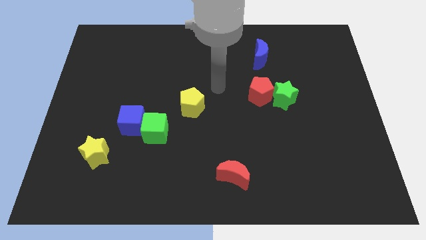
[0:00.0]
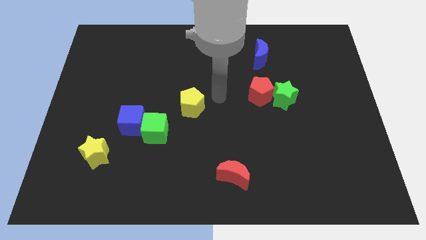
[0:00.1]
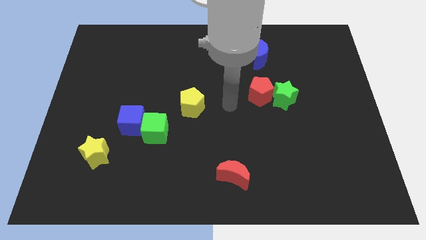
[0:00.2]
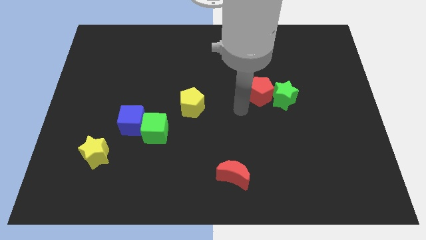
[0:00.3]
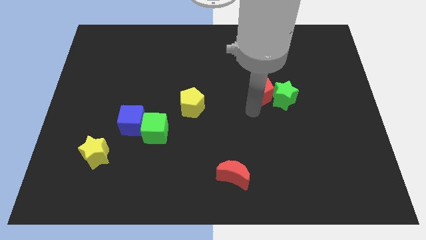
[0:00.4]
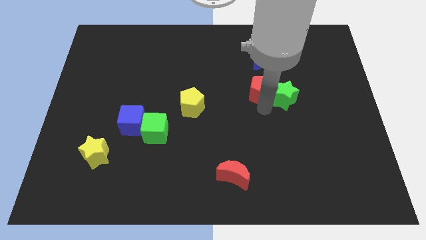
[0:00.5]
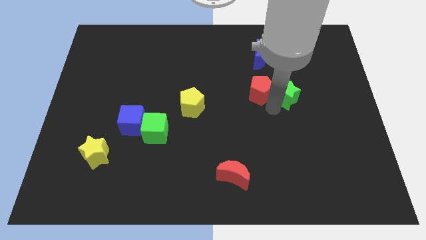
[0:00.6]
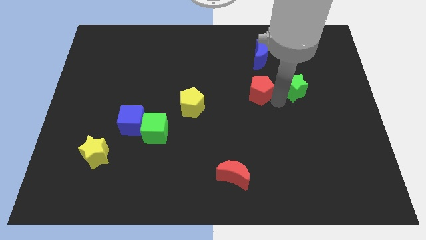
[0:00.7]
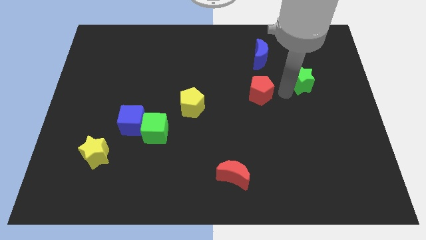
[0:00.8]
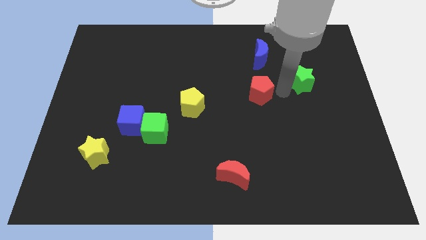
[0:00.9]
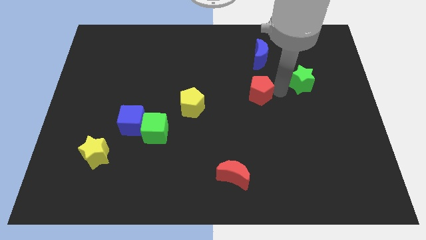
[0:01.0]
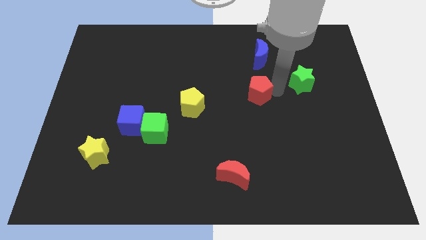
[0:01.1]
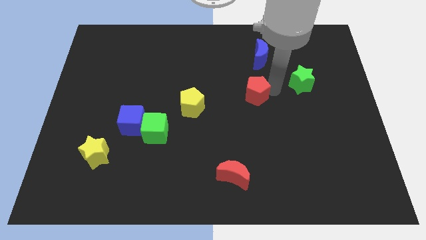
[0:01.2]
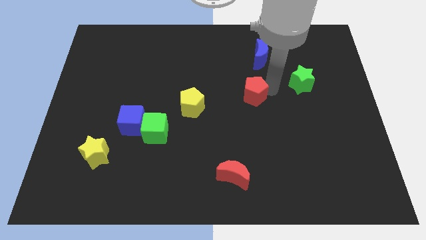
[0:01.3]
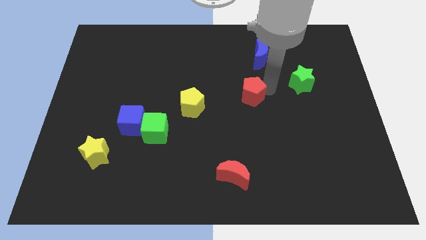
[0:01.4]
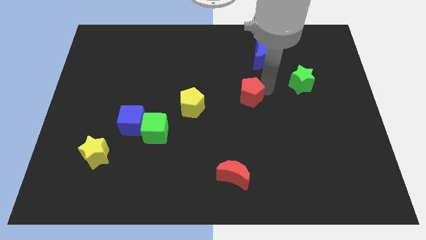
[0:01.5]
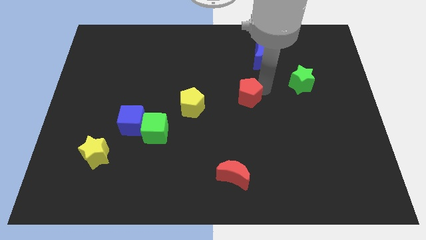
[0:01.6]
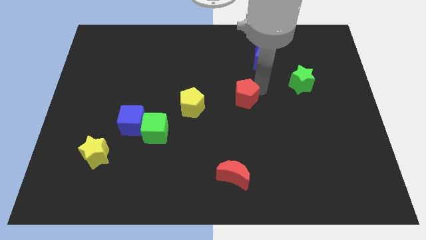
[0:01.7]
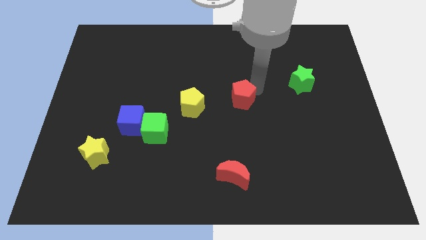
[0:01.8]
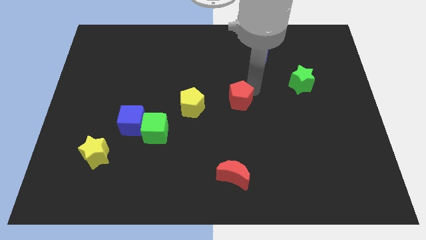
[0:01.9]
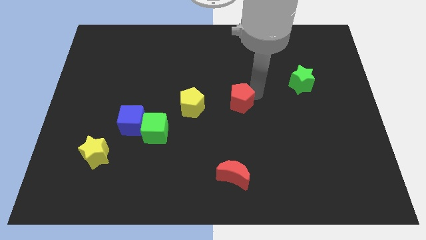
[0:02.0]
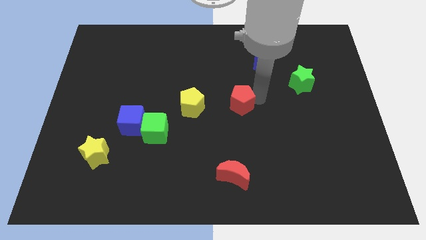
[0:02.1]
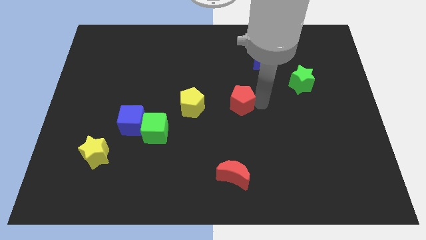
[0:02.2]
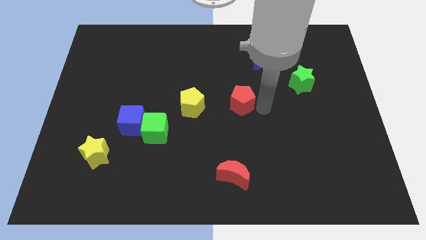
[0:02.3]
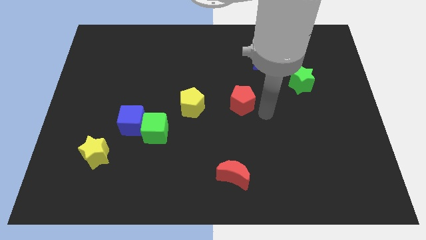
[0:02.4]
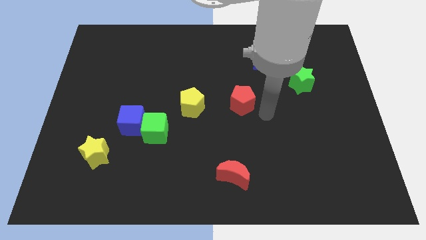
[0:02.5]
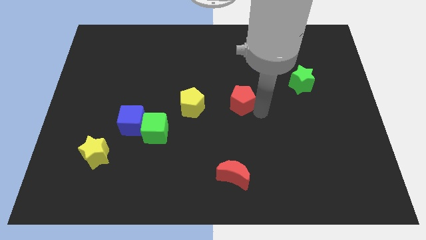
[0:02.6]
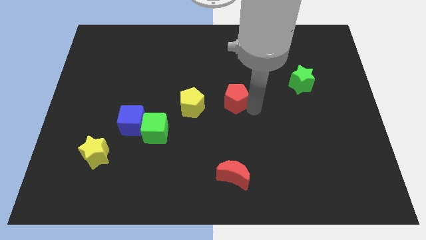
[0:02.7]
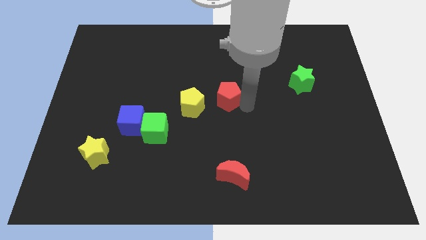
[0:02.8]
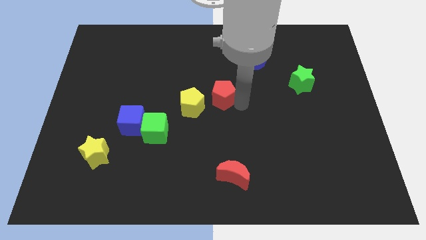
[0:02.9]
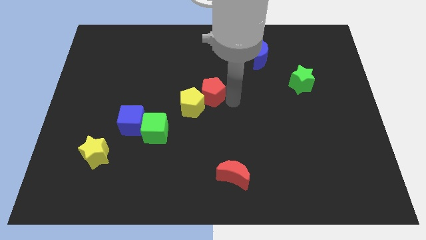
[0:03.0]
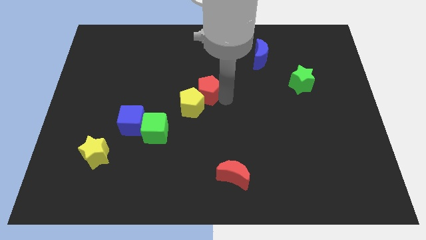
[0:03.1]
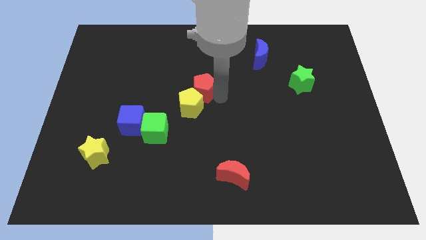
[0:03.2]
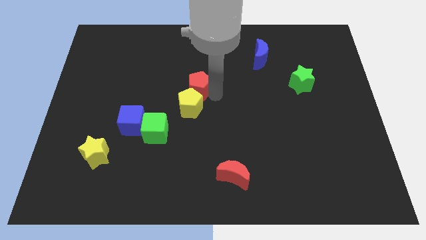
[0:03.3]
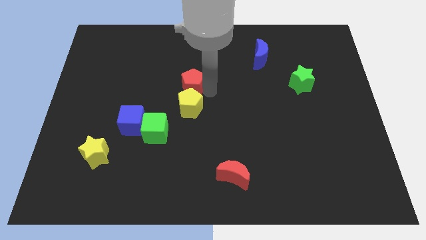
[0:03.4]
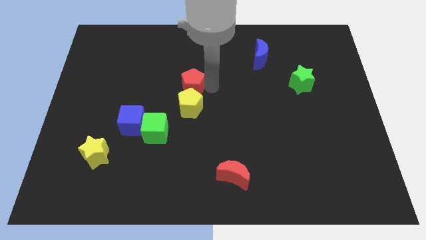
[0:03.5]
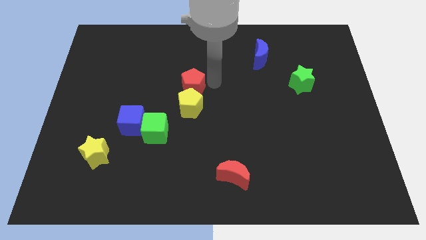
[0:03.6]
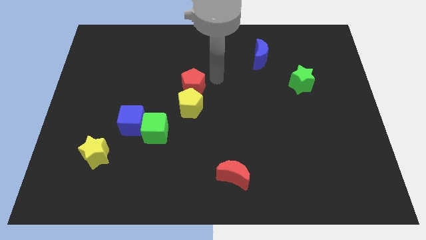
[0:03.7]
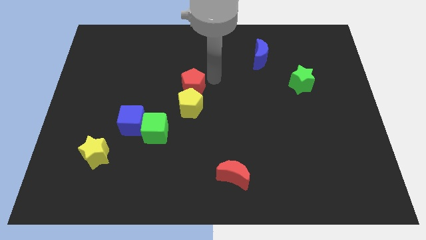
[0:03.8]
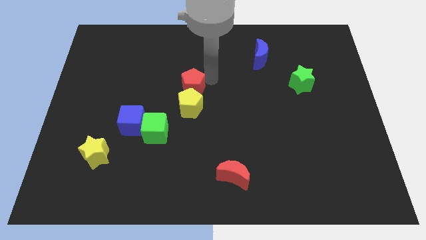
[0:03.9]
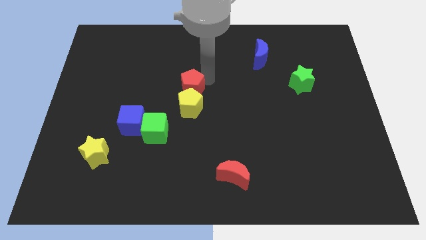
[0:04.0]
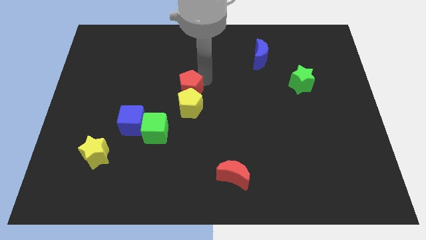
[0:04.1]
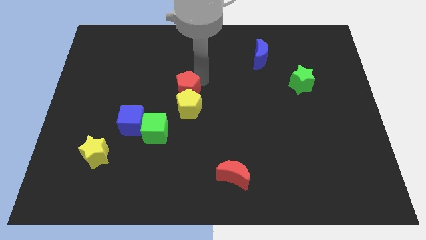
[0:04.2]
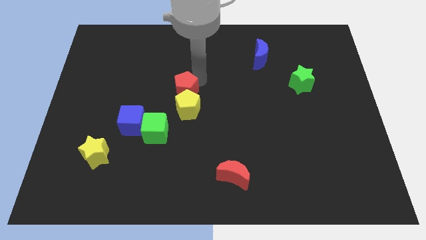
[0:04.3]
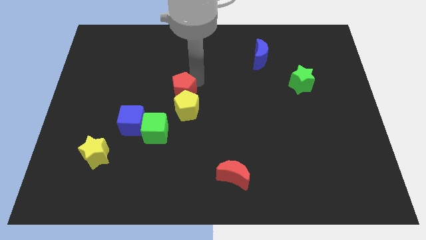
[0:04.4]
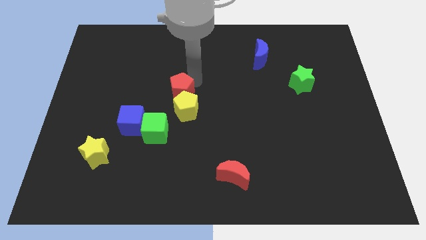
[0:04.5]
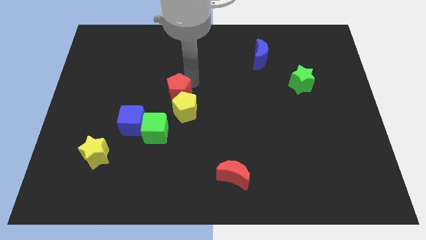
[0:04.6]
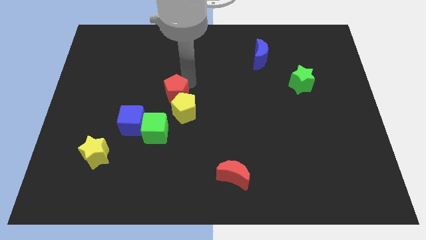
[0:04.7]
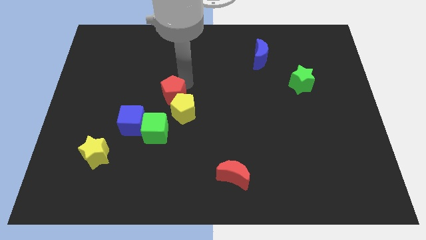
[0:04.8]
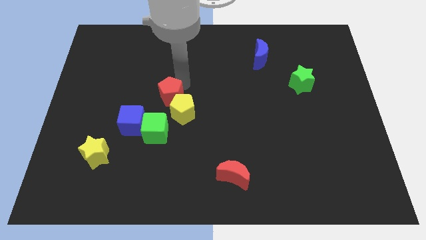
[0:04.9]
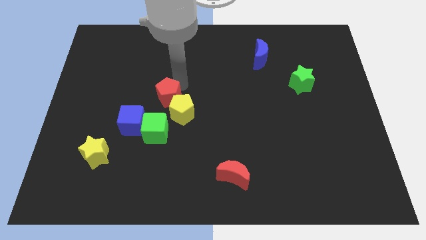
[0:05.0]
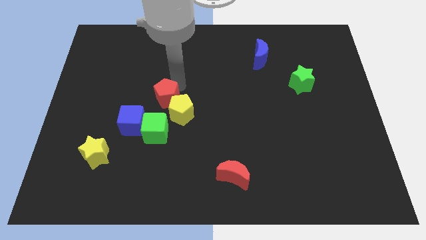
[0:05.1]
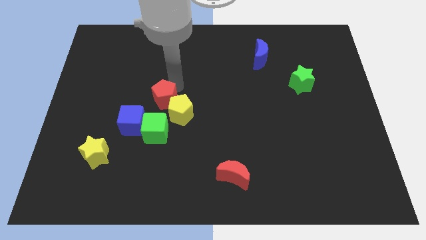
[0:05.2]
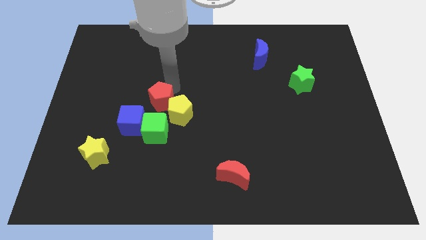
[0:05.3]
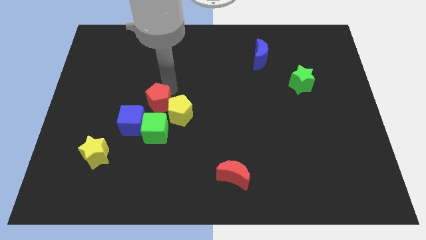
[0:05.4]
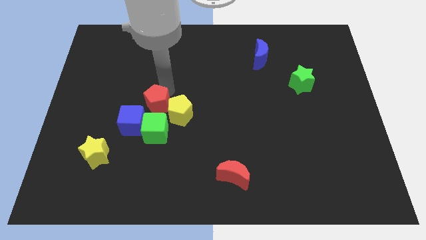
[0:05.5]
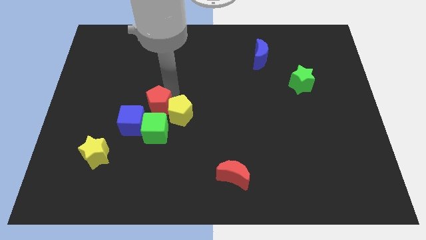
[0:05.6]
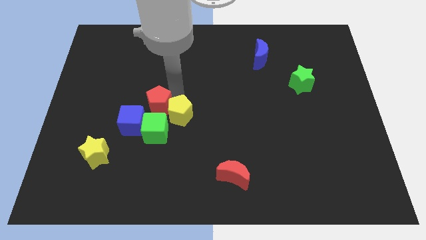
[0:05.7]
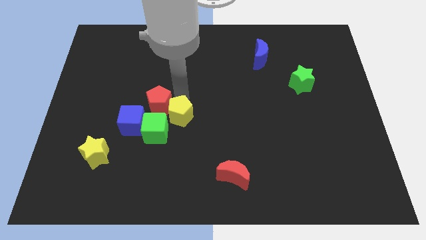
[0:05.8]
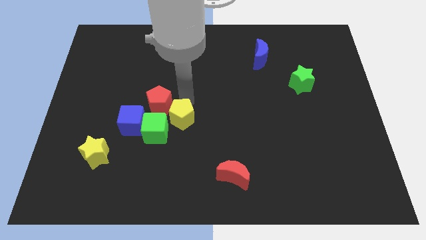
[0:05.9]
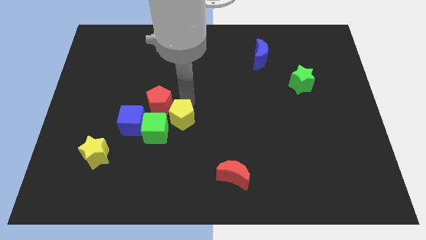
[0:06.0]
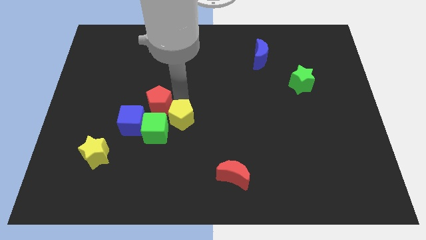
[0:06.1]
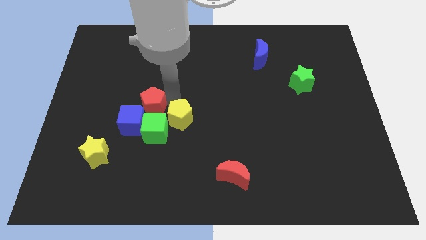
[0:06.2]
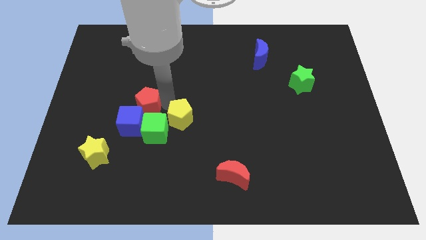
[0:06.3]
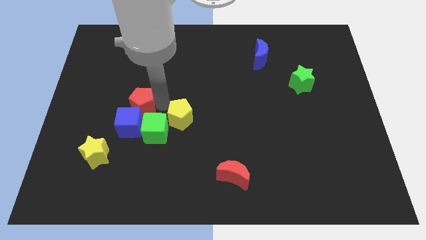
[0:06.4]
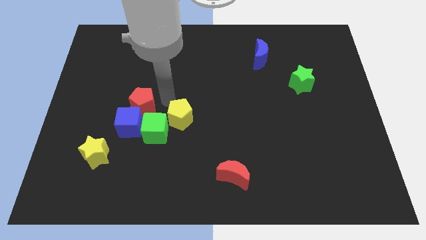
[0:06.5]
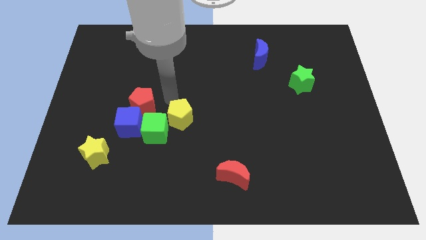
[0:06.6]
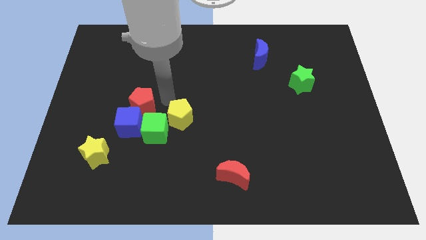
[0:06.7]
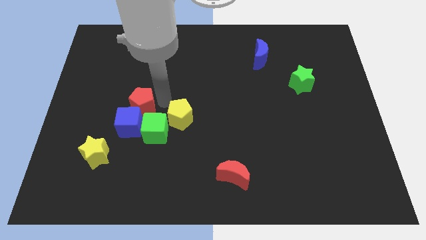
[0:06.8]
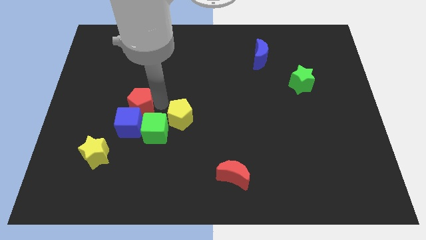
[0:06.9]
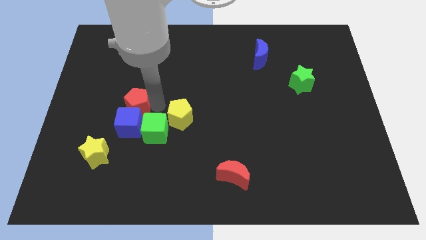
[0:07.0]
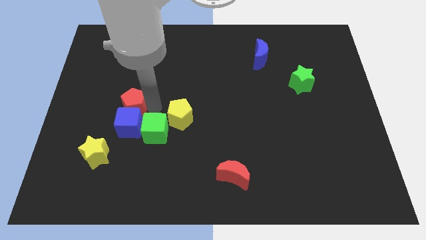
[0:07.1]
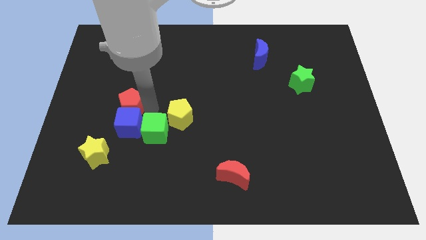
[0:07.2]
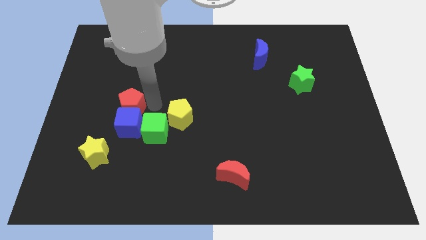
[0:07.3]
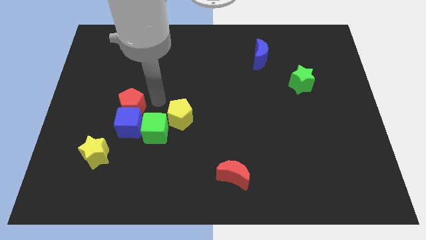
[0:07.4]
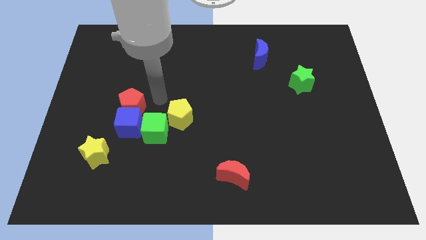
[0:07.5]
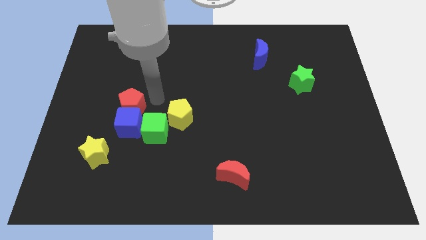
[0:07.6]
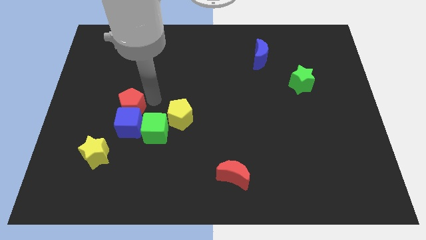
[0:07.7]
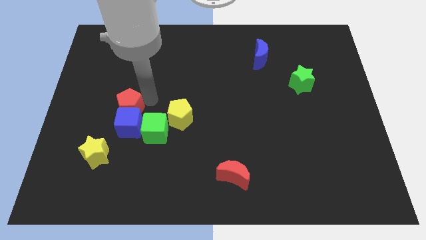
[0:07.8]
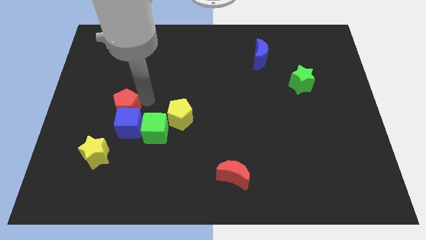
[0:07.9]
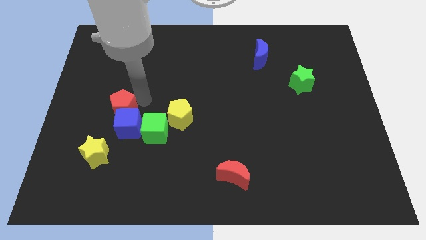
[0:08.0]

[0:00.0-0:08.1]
slide the red pentagon above the yellow star
